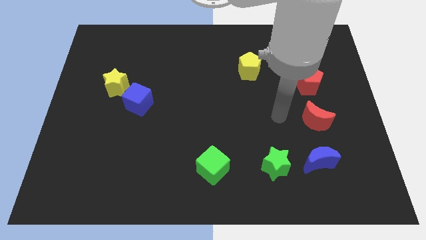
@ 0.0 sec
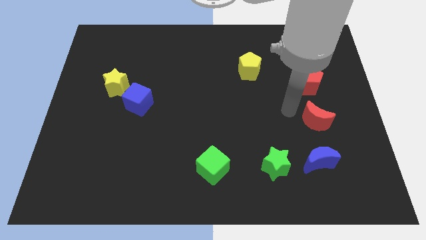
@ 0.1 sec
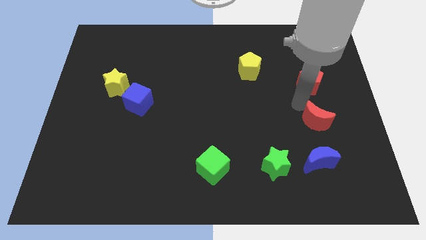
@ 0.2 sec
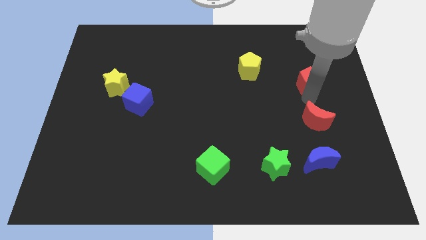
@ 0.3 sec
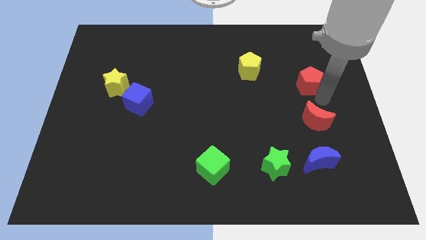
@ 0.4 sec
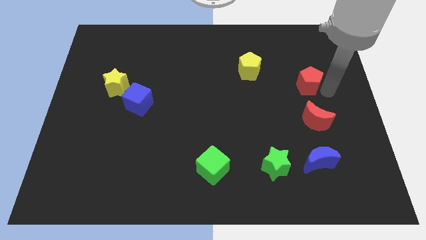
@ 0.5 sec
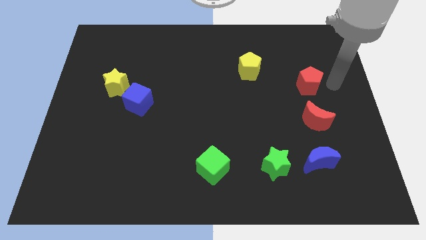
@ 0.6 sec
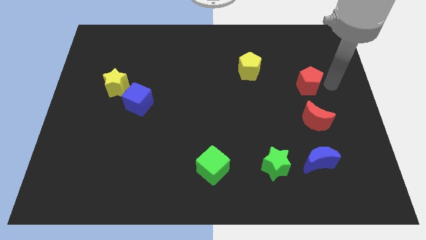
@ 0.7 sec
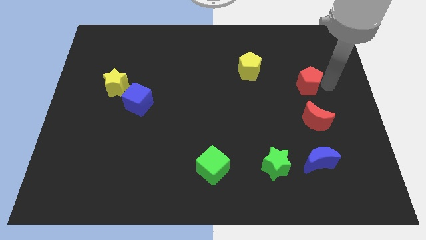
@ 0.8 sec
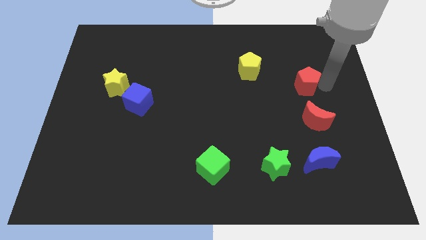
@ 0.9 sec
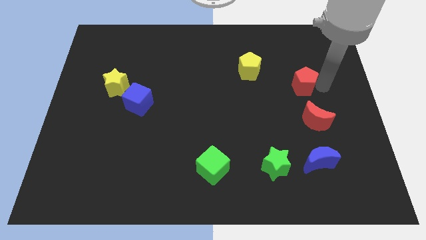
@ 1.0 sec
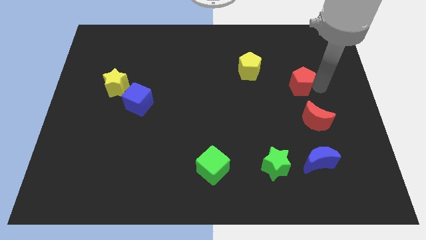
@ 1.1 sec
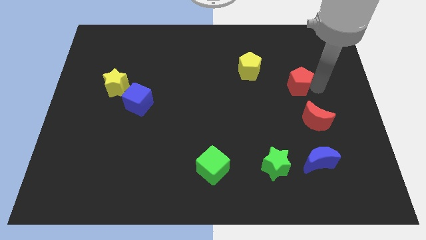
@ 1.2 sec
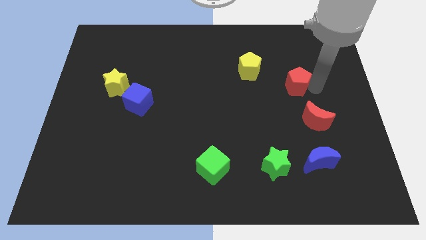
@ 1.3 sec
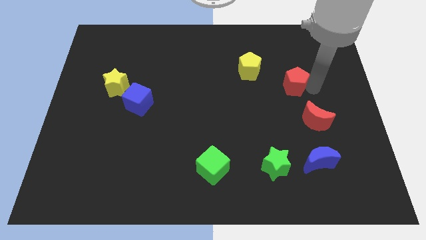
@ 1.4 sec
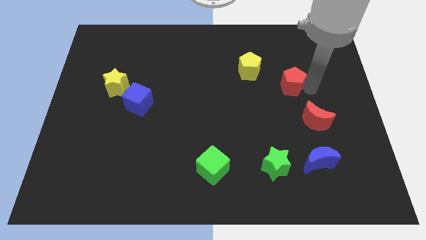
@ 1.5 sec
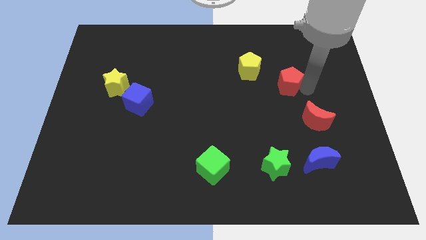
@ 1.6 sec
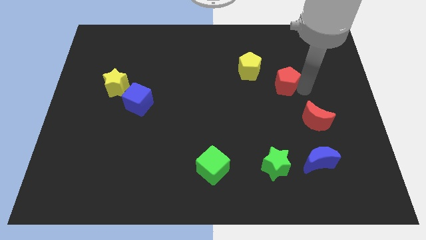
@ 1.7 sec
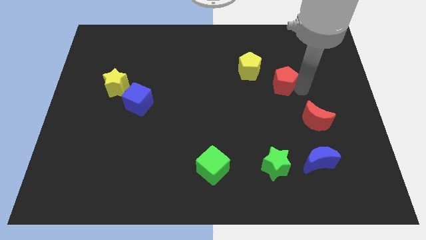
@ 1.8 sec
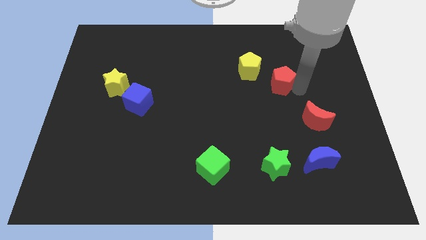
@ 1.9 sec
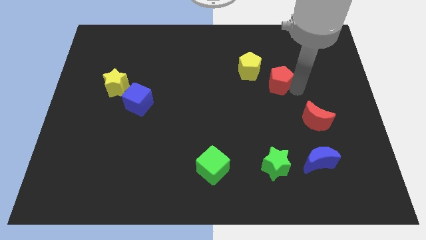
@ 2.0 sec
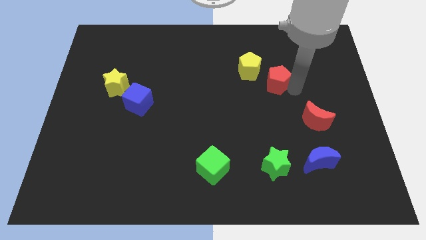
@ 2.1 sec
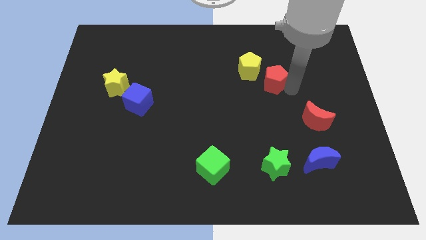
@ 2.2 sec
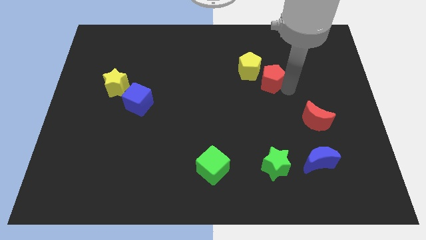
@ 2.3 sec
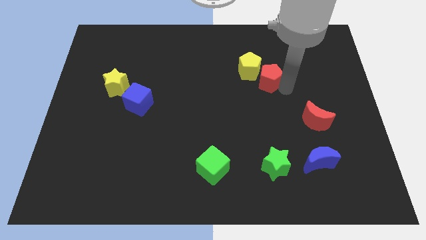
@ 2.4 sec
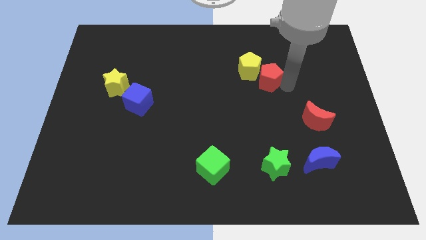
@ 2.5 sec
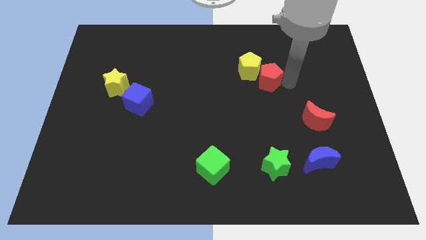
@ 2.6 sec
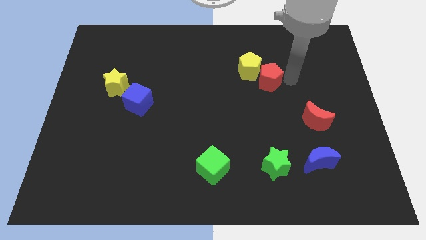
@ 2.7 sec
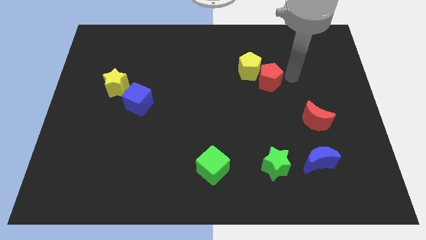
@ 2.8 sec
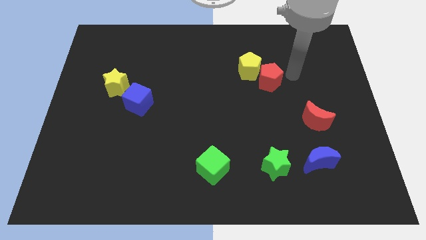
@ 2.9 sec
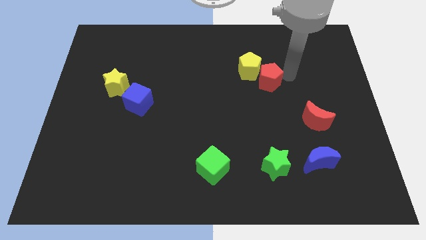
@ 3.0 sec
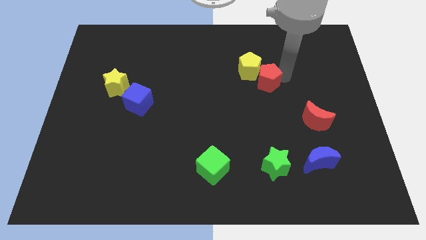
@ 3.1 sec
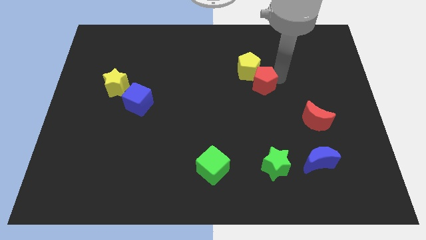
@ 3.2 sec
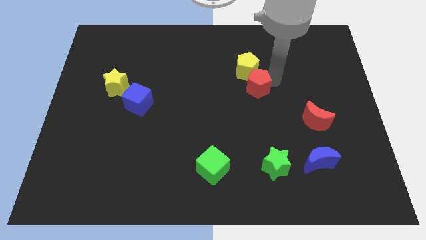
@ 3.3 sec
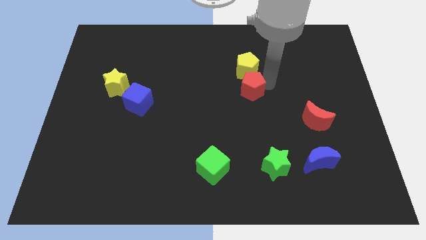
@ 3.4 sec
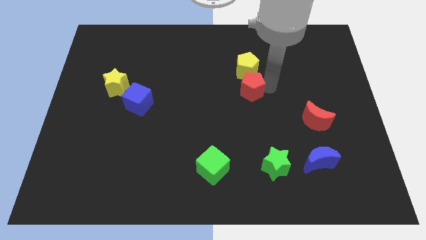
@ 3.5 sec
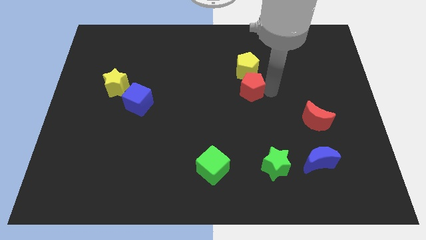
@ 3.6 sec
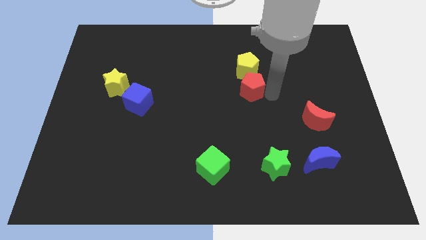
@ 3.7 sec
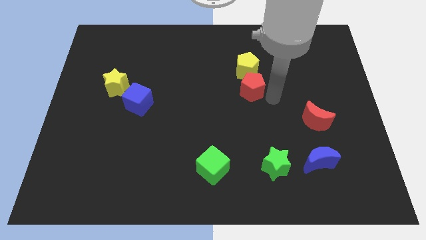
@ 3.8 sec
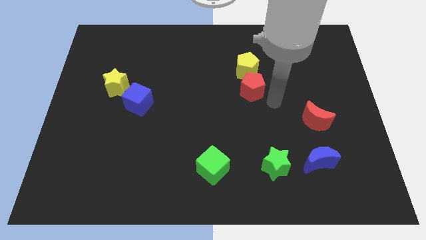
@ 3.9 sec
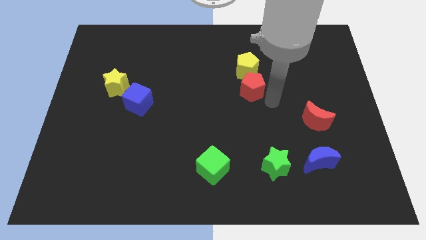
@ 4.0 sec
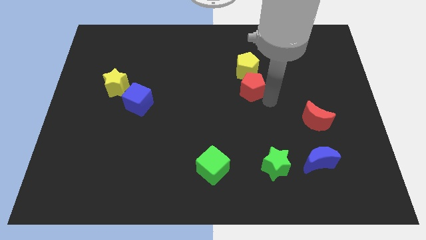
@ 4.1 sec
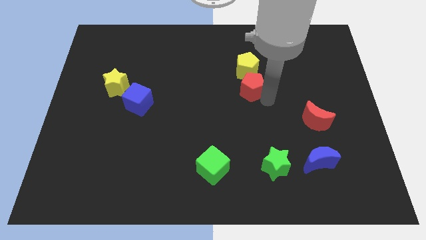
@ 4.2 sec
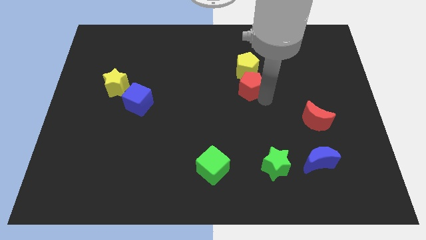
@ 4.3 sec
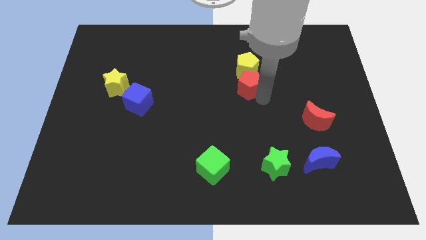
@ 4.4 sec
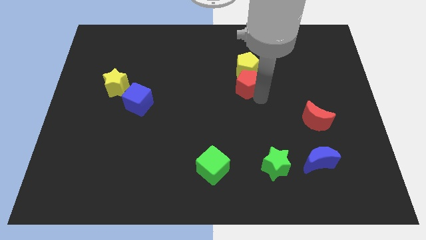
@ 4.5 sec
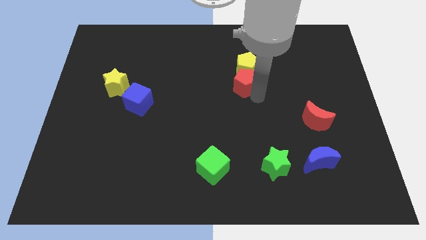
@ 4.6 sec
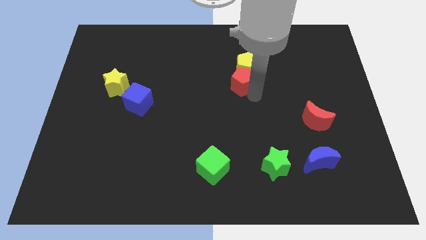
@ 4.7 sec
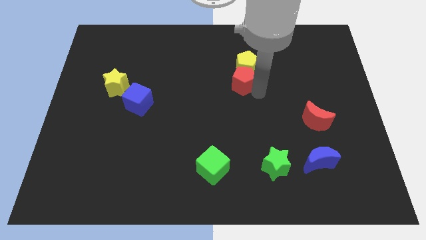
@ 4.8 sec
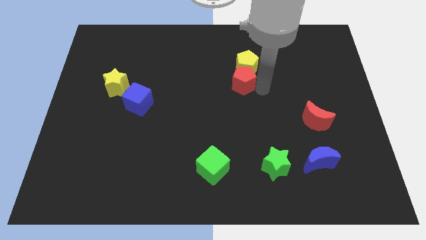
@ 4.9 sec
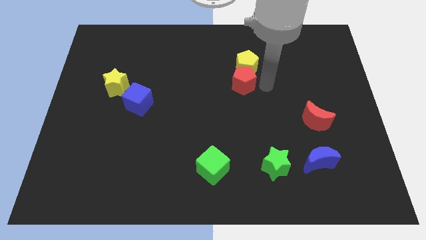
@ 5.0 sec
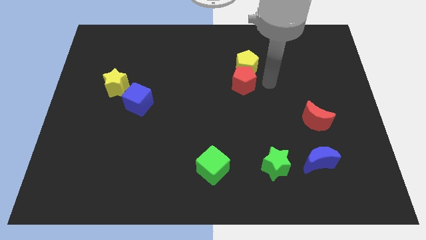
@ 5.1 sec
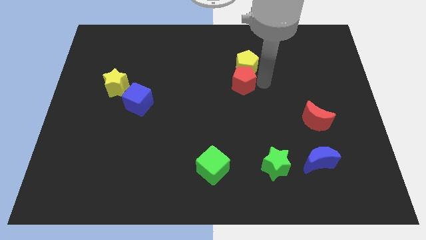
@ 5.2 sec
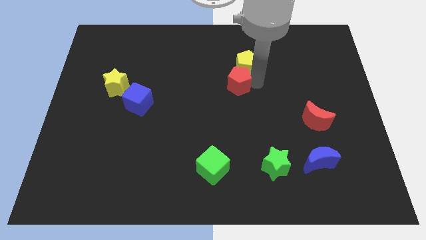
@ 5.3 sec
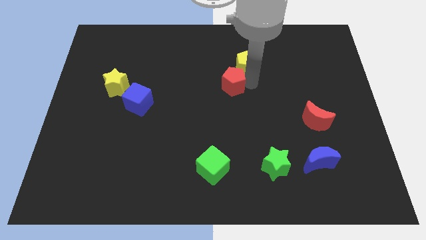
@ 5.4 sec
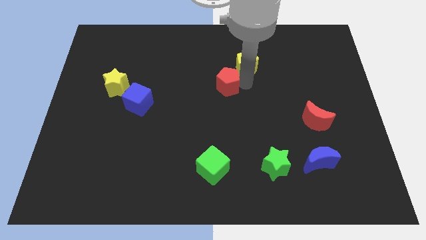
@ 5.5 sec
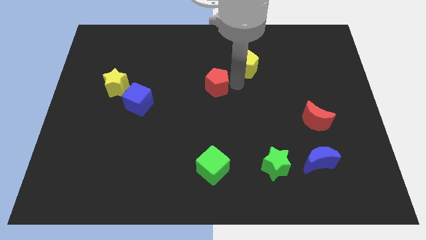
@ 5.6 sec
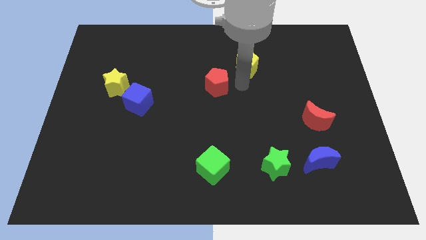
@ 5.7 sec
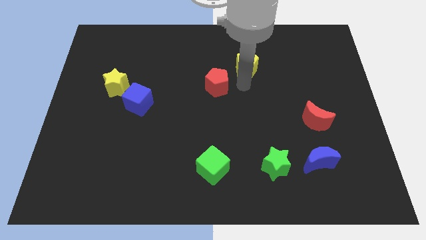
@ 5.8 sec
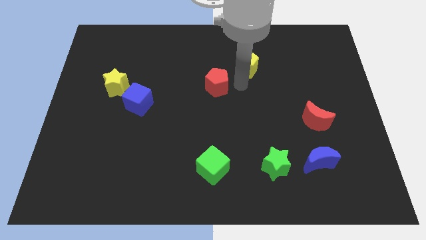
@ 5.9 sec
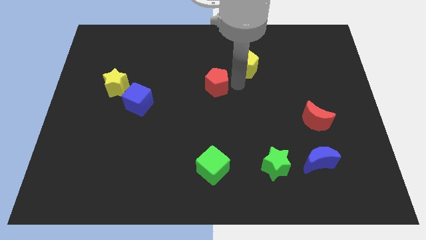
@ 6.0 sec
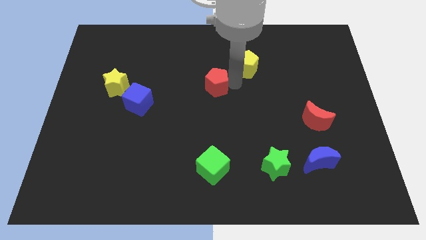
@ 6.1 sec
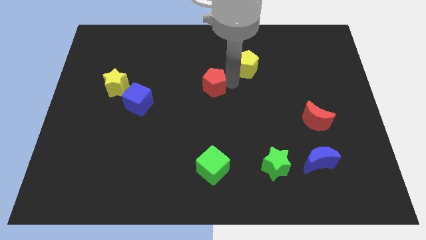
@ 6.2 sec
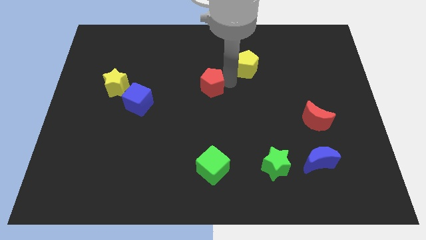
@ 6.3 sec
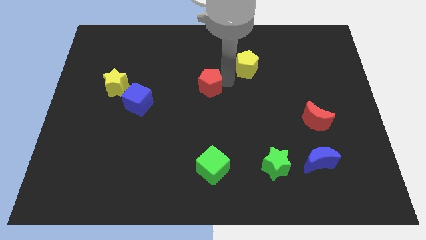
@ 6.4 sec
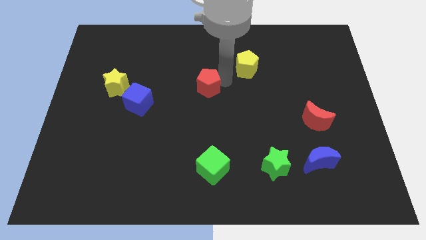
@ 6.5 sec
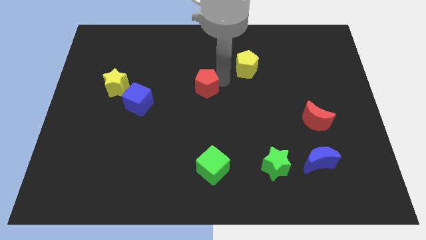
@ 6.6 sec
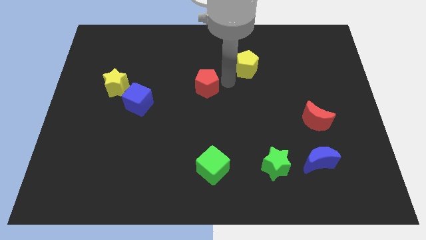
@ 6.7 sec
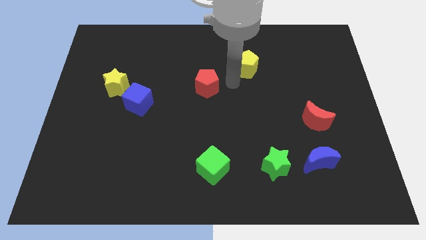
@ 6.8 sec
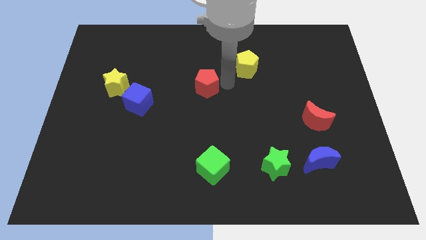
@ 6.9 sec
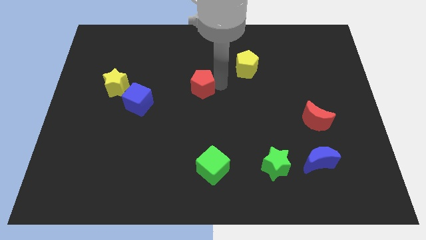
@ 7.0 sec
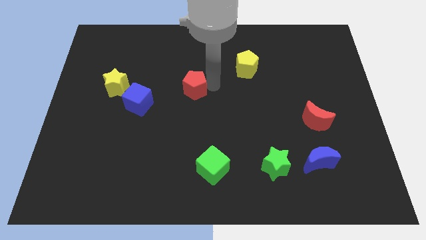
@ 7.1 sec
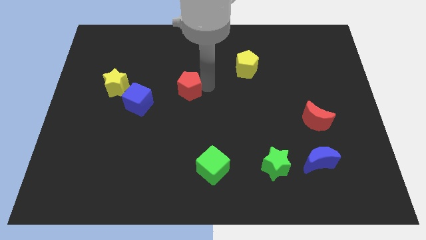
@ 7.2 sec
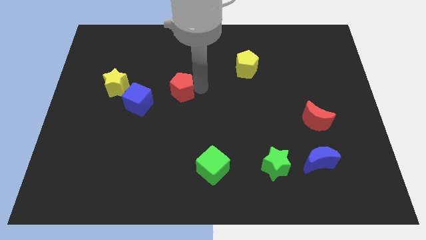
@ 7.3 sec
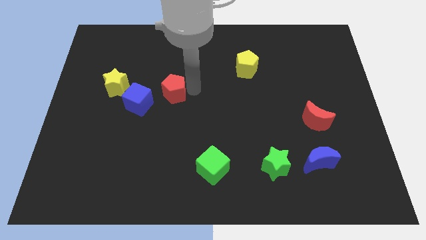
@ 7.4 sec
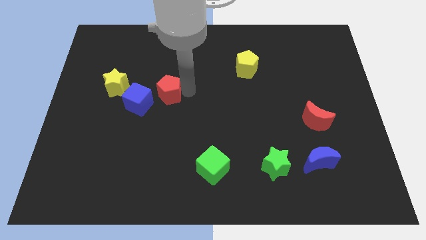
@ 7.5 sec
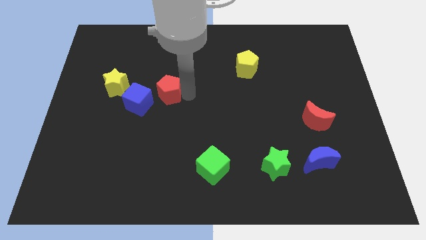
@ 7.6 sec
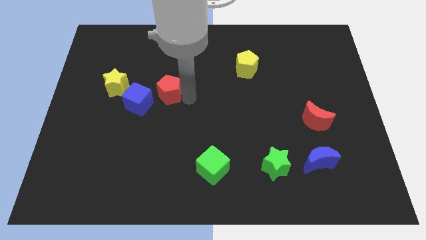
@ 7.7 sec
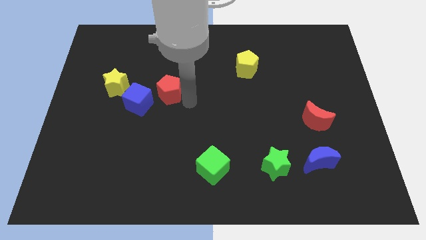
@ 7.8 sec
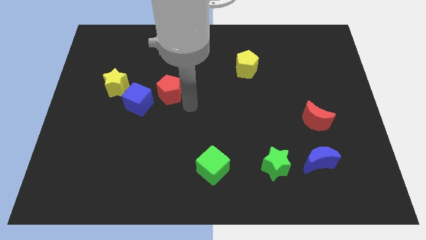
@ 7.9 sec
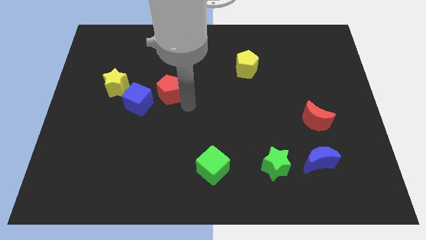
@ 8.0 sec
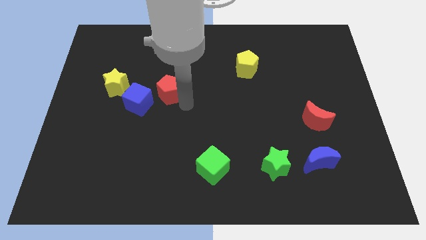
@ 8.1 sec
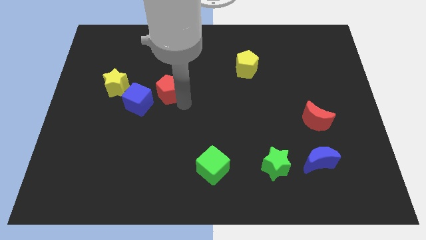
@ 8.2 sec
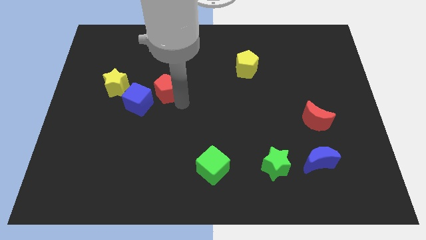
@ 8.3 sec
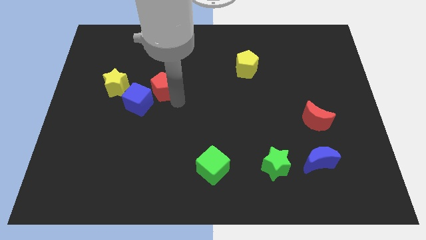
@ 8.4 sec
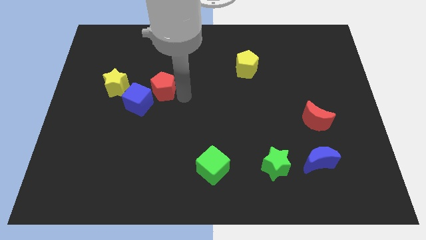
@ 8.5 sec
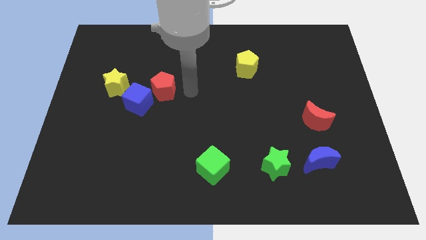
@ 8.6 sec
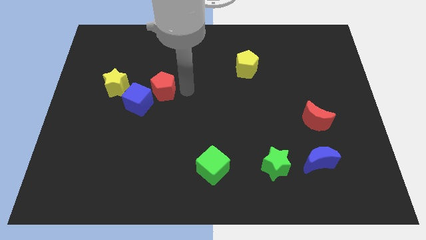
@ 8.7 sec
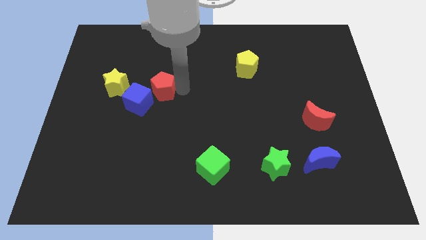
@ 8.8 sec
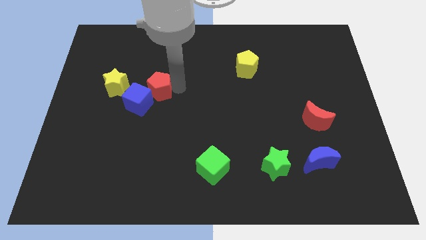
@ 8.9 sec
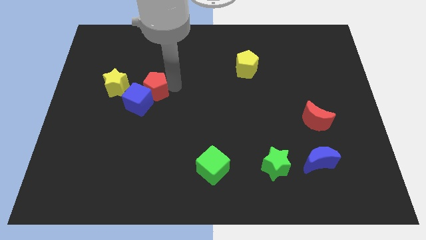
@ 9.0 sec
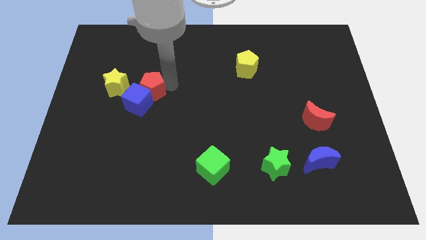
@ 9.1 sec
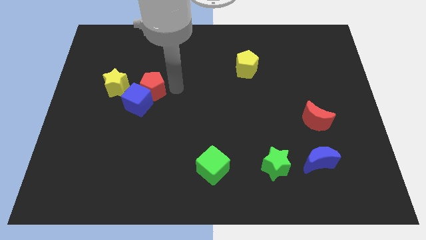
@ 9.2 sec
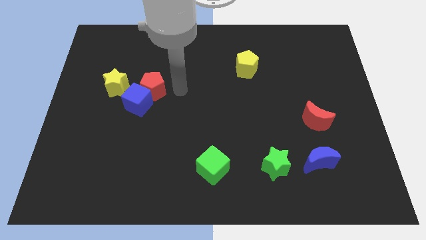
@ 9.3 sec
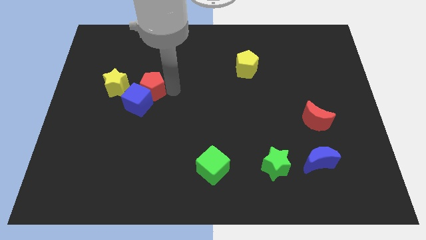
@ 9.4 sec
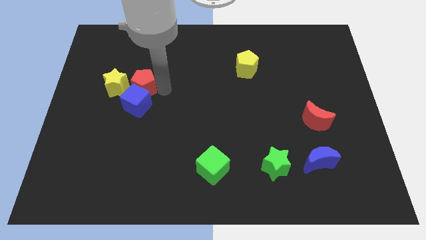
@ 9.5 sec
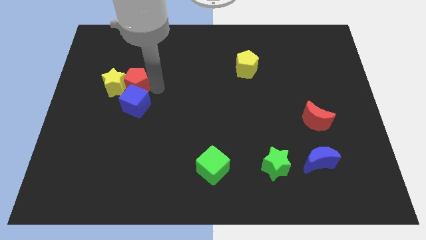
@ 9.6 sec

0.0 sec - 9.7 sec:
put the red pentagon close to the yellow star
